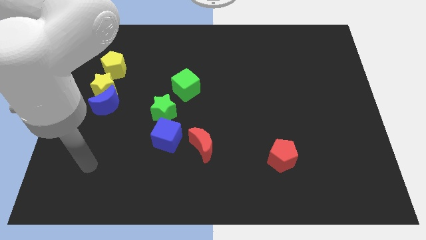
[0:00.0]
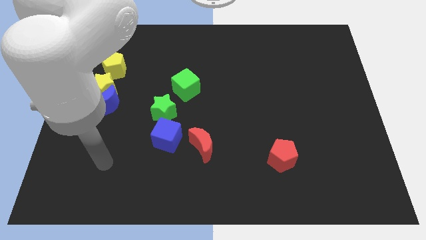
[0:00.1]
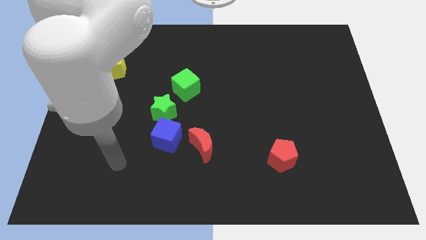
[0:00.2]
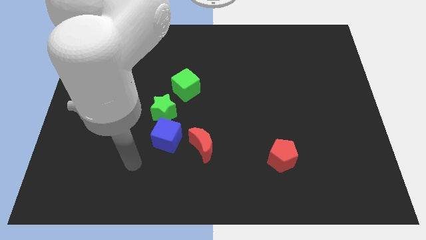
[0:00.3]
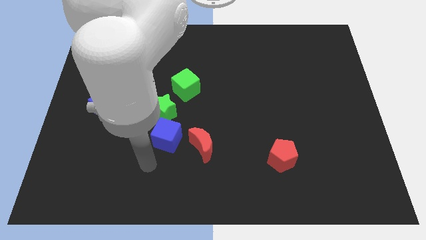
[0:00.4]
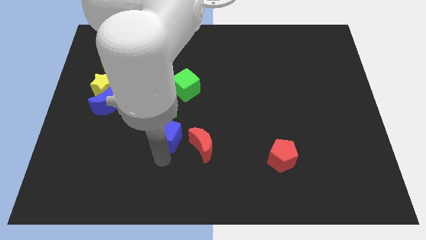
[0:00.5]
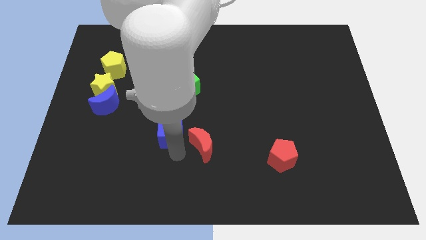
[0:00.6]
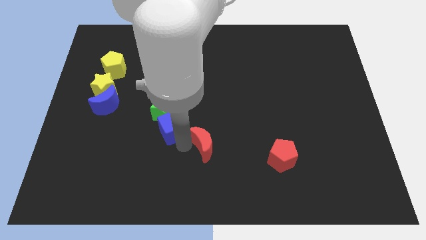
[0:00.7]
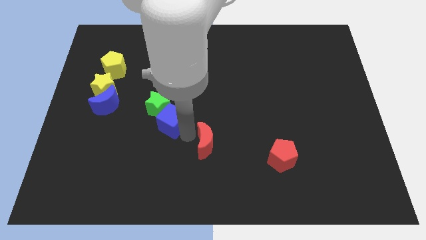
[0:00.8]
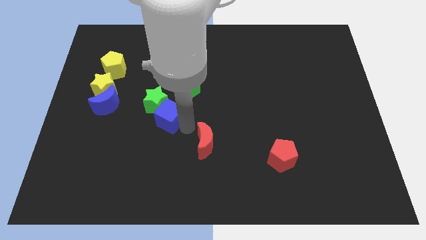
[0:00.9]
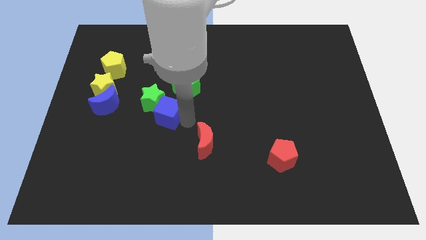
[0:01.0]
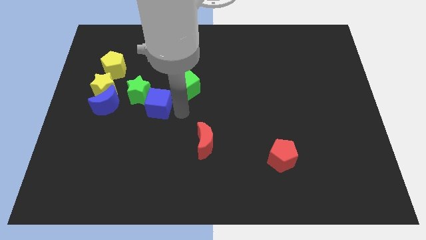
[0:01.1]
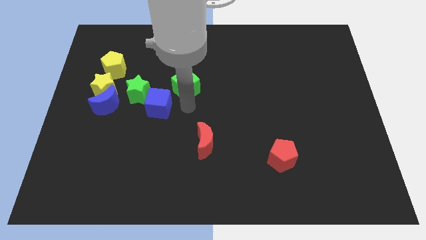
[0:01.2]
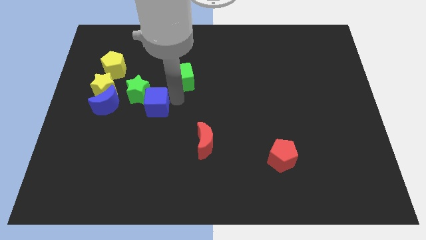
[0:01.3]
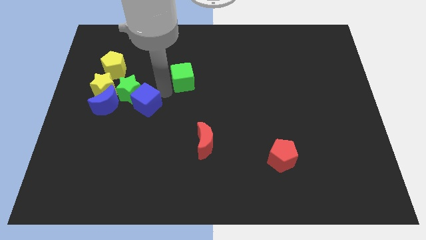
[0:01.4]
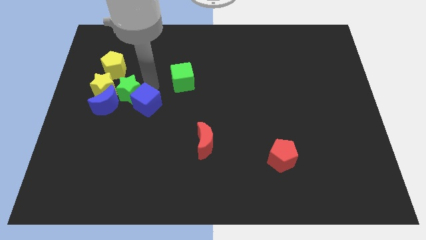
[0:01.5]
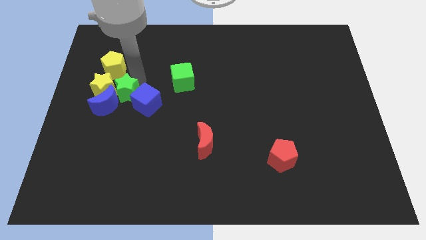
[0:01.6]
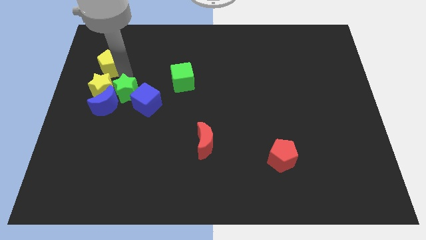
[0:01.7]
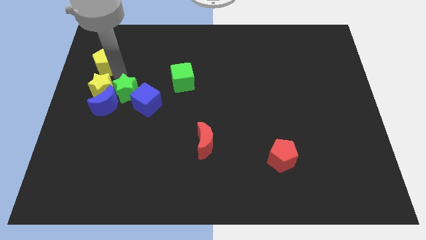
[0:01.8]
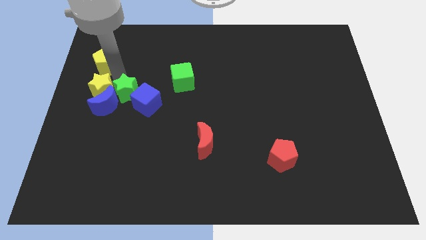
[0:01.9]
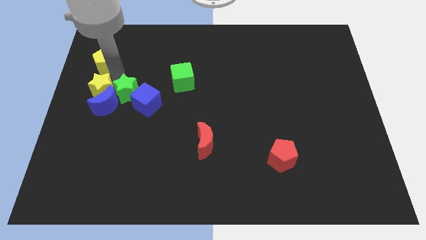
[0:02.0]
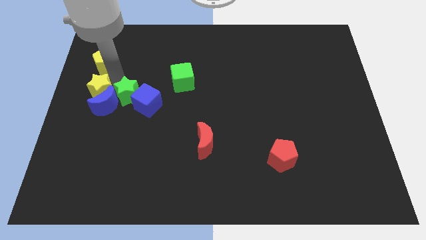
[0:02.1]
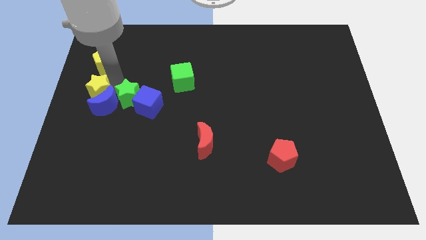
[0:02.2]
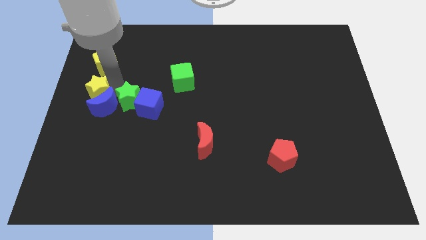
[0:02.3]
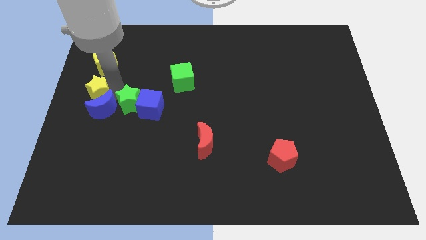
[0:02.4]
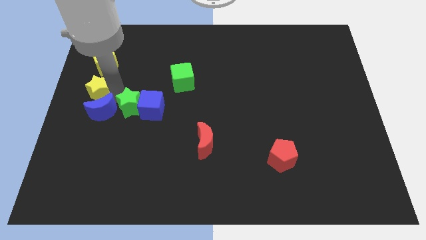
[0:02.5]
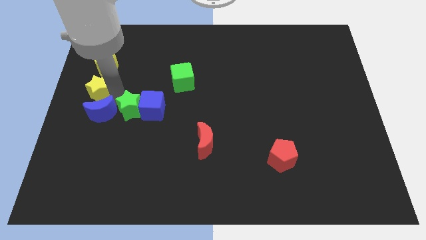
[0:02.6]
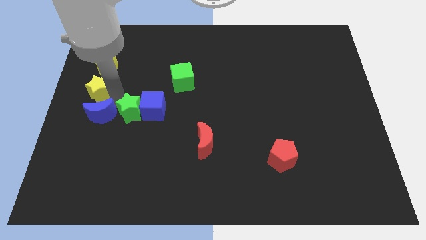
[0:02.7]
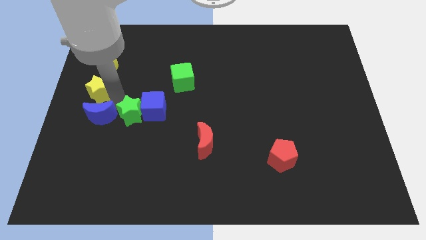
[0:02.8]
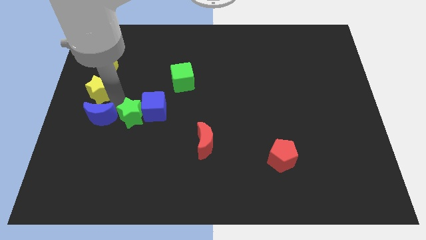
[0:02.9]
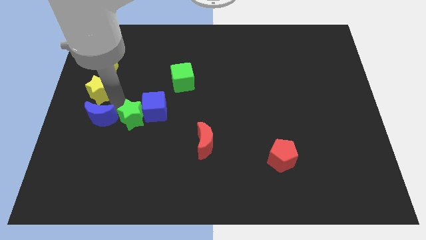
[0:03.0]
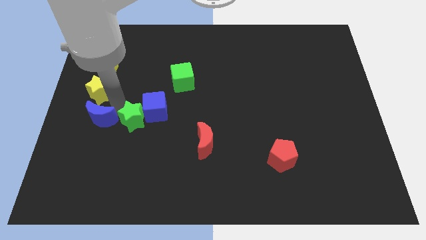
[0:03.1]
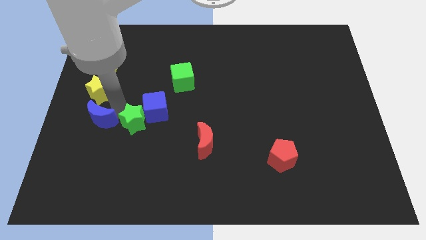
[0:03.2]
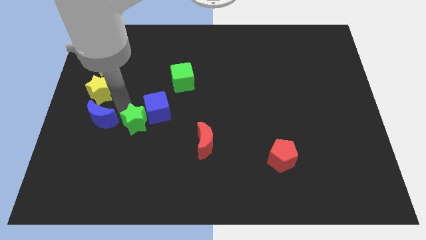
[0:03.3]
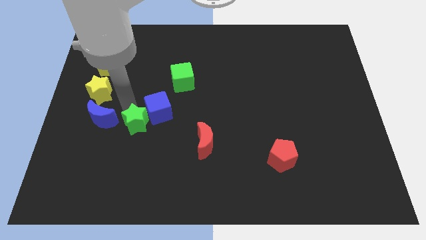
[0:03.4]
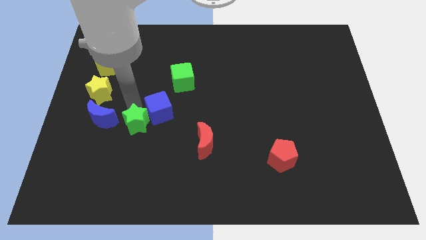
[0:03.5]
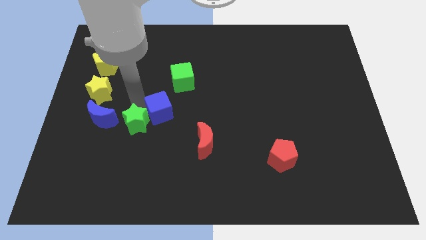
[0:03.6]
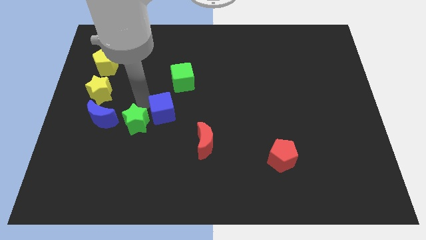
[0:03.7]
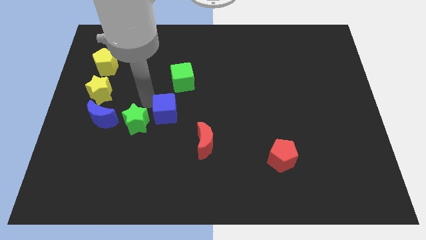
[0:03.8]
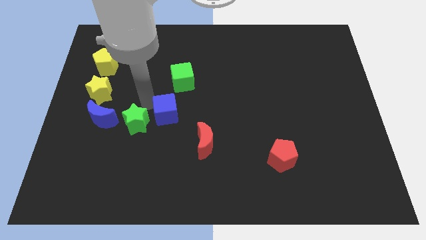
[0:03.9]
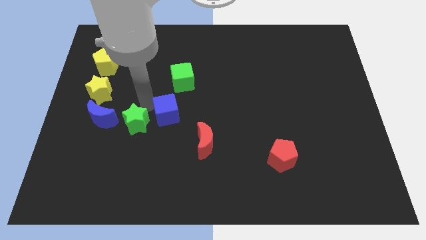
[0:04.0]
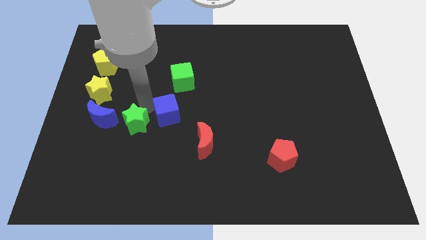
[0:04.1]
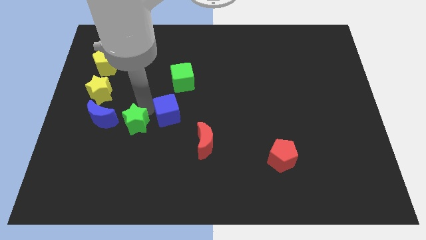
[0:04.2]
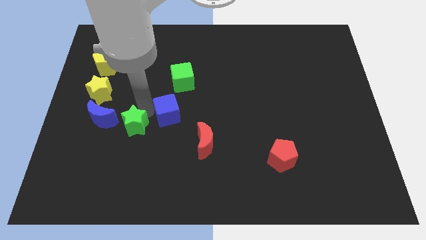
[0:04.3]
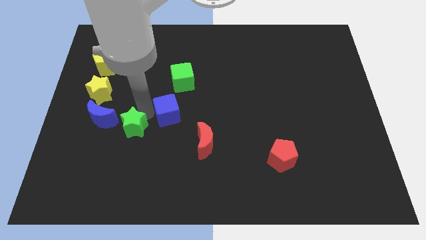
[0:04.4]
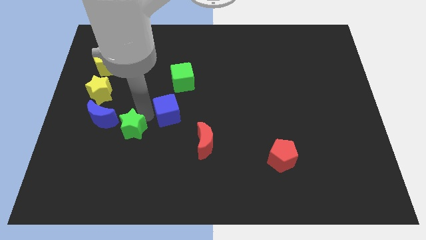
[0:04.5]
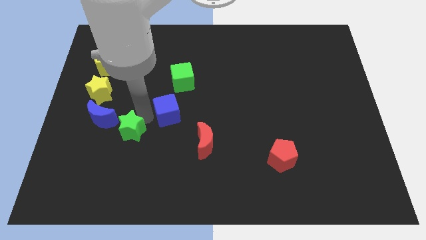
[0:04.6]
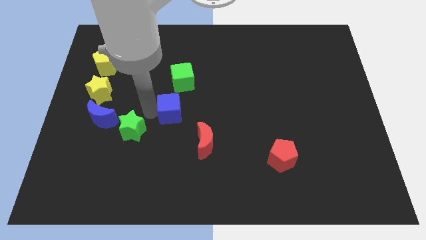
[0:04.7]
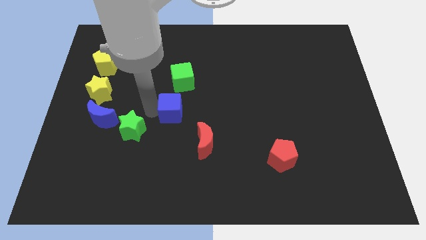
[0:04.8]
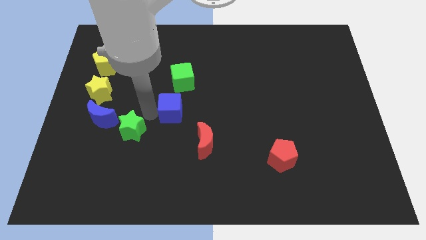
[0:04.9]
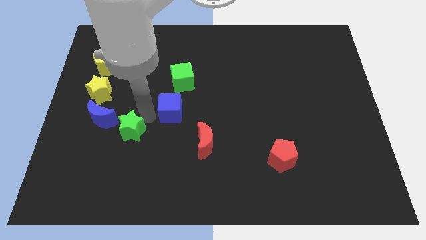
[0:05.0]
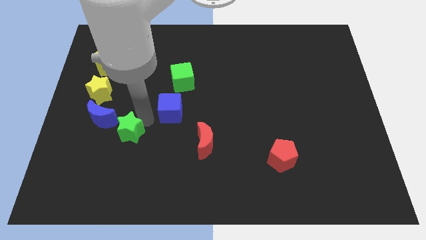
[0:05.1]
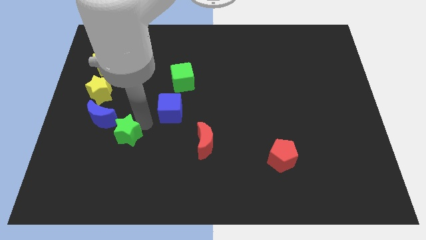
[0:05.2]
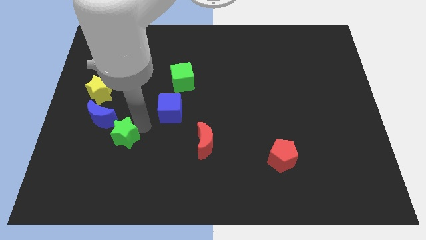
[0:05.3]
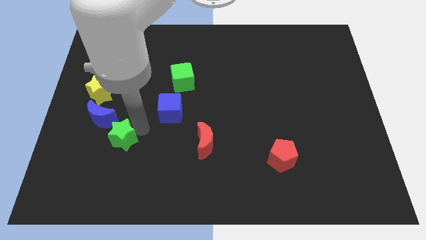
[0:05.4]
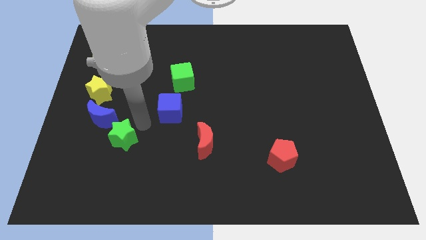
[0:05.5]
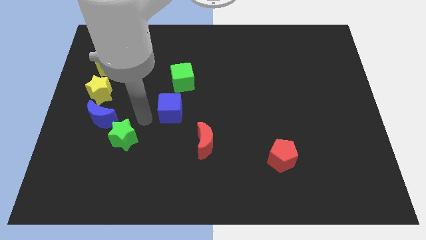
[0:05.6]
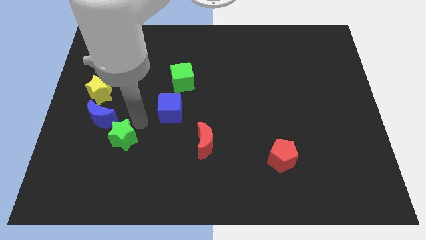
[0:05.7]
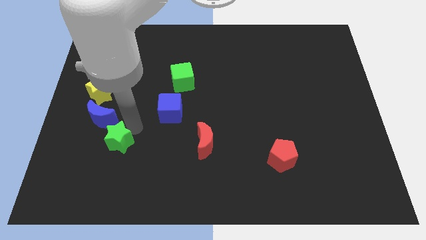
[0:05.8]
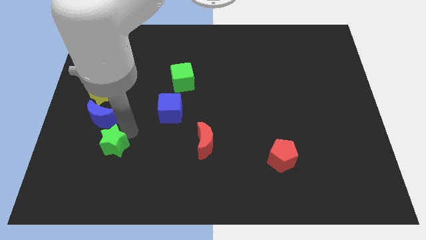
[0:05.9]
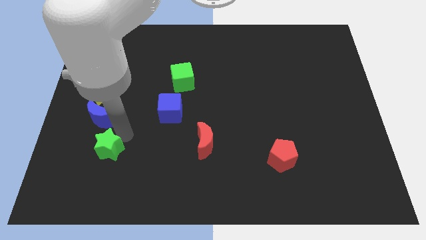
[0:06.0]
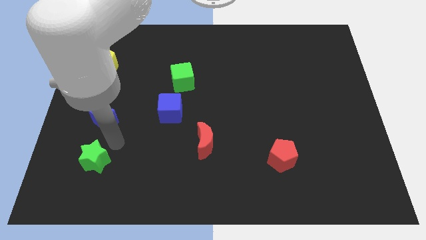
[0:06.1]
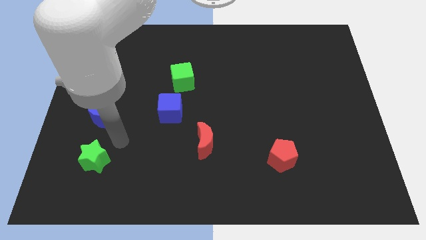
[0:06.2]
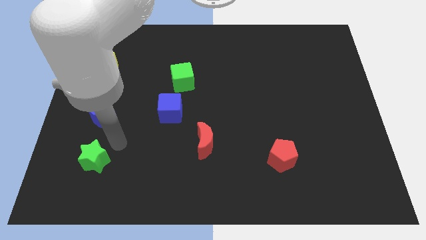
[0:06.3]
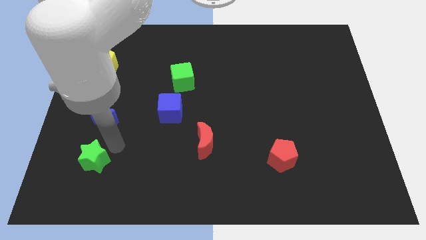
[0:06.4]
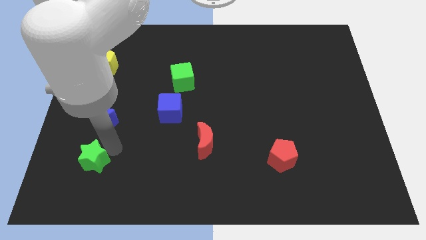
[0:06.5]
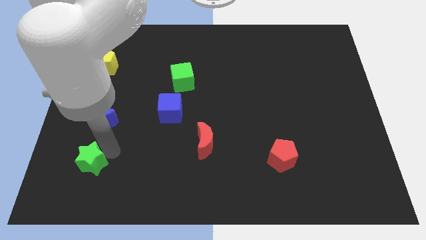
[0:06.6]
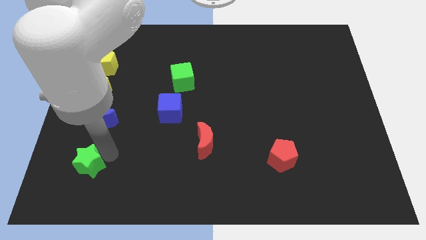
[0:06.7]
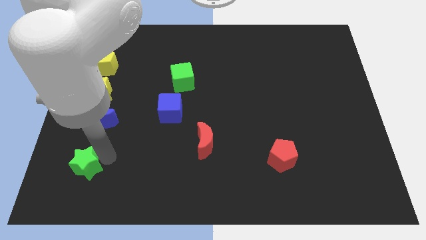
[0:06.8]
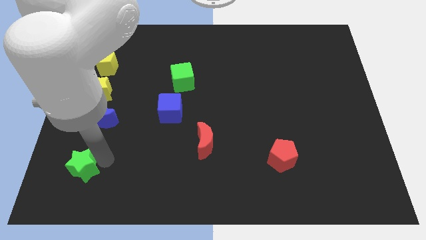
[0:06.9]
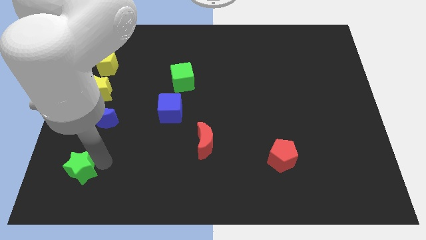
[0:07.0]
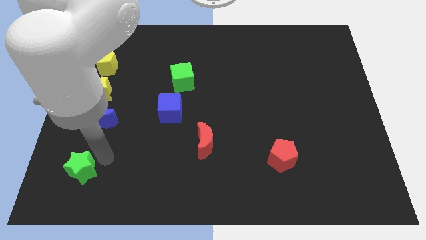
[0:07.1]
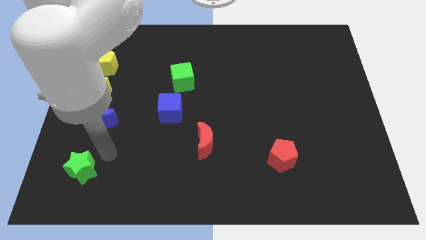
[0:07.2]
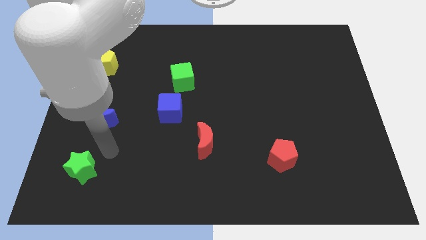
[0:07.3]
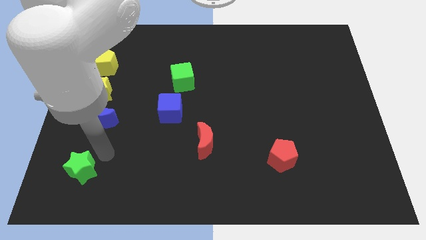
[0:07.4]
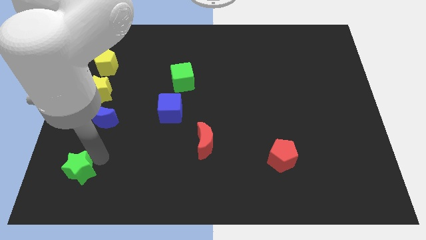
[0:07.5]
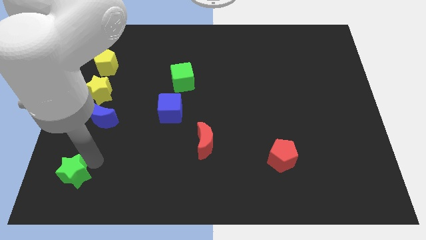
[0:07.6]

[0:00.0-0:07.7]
push the green star to the bottom left
